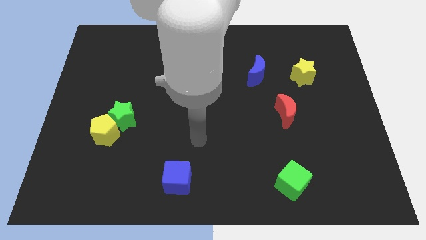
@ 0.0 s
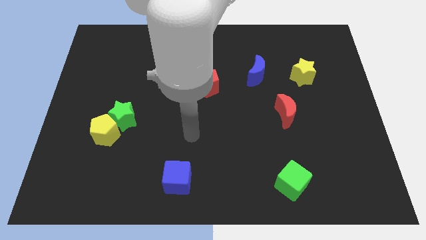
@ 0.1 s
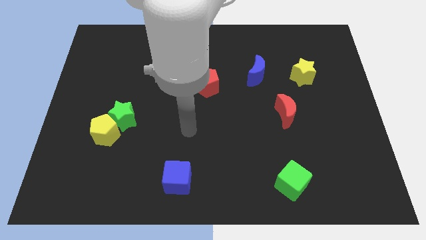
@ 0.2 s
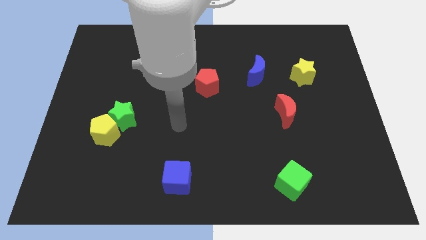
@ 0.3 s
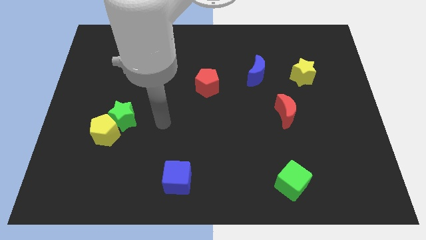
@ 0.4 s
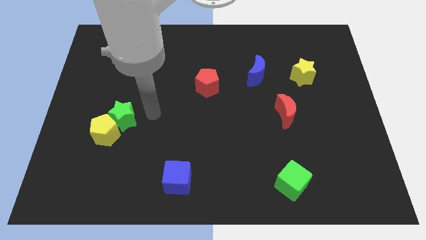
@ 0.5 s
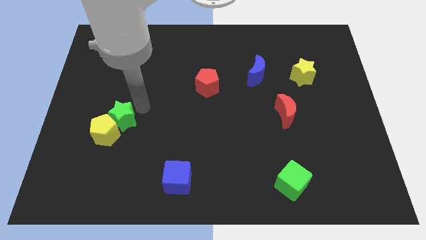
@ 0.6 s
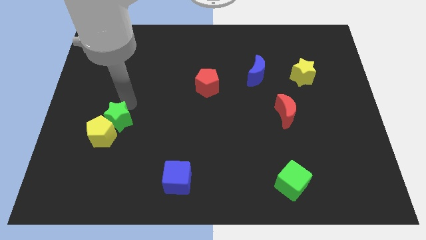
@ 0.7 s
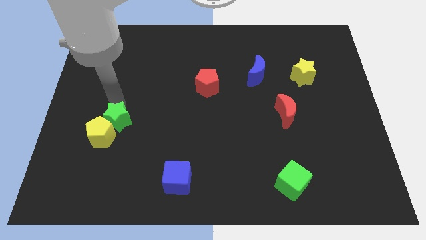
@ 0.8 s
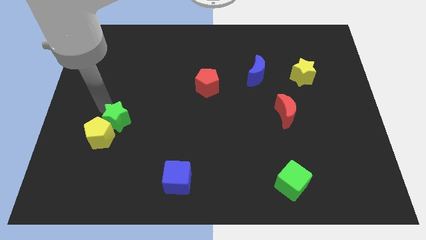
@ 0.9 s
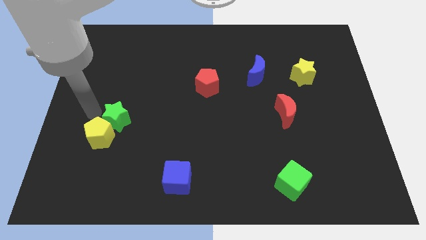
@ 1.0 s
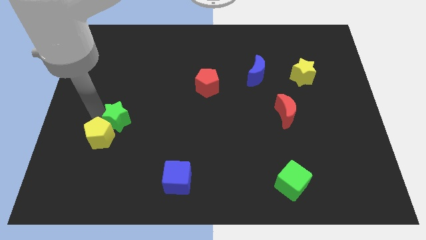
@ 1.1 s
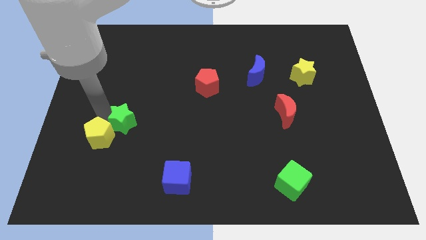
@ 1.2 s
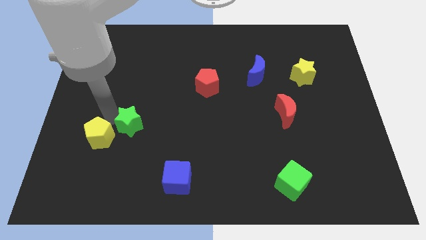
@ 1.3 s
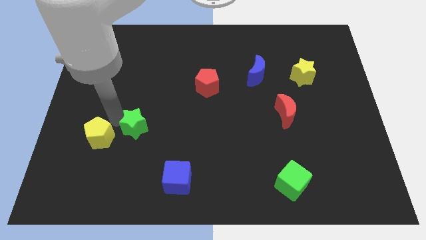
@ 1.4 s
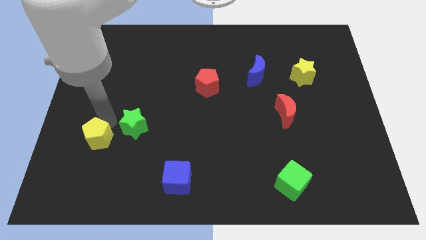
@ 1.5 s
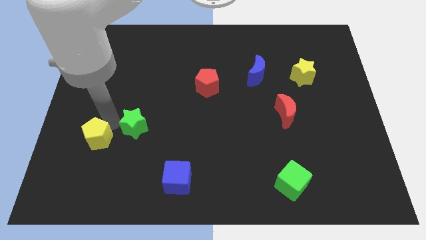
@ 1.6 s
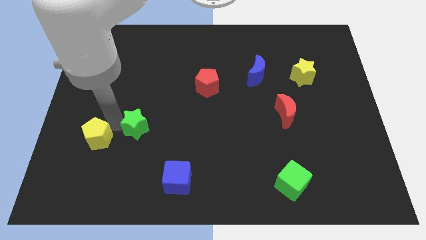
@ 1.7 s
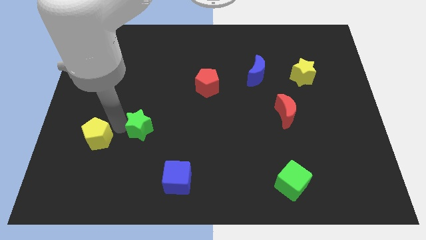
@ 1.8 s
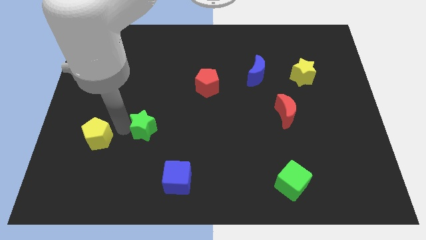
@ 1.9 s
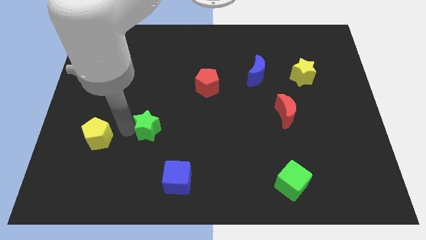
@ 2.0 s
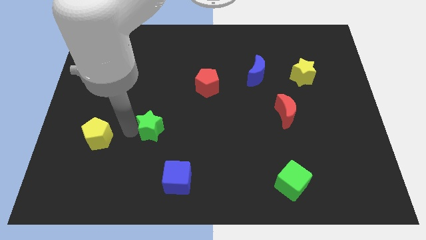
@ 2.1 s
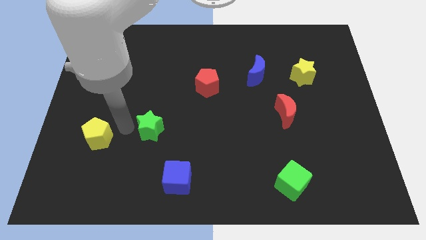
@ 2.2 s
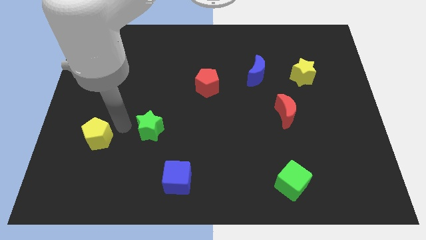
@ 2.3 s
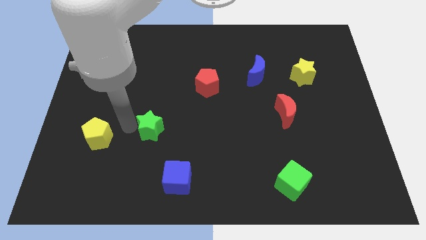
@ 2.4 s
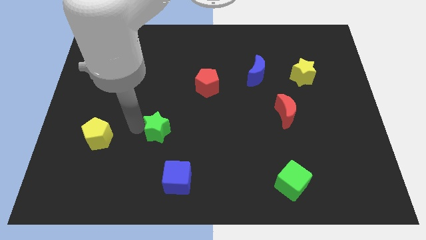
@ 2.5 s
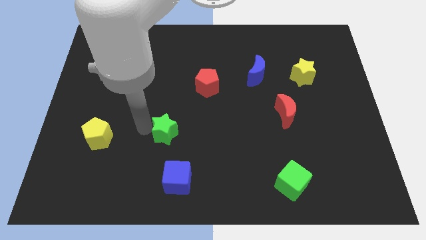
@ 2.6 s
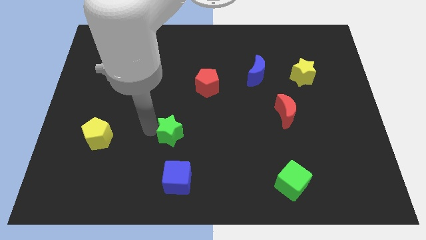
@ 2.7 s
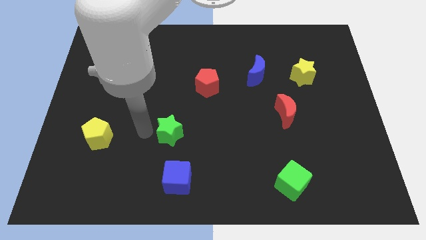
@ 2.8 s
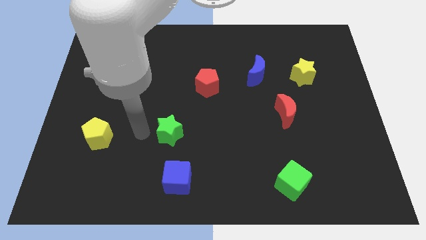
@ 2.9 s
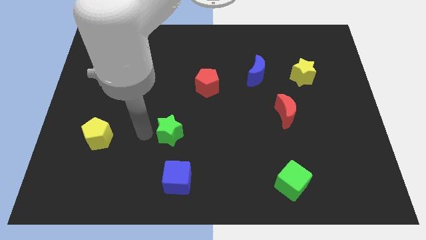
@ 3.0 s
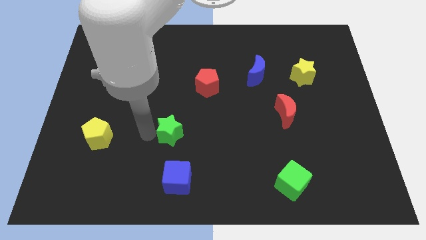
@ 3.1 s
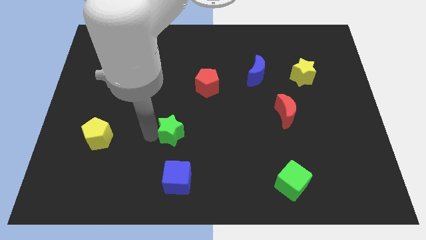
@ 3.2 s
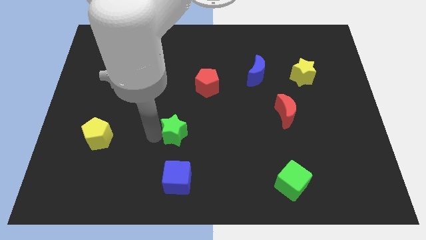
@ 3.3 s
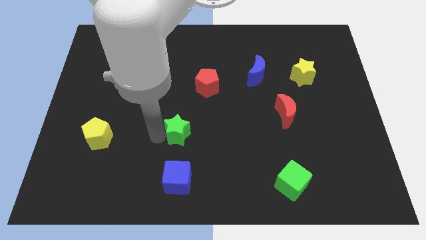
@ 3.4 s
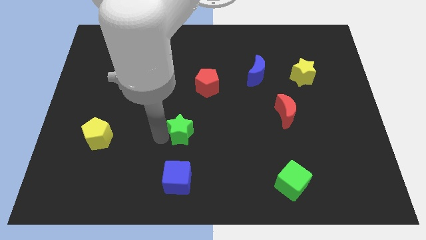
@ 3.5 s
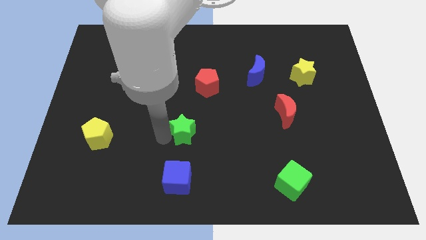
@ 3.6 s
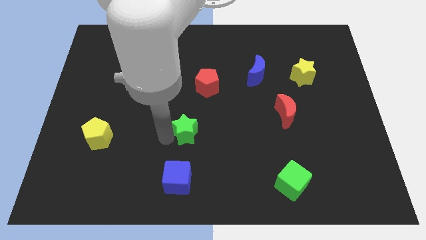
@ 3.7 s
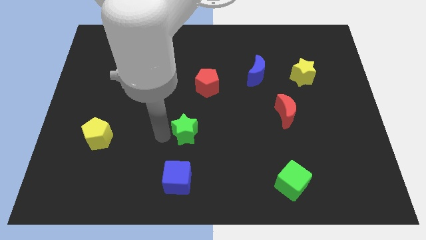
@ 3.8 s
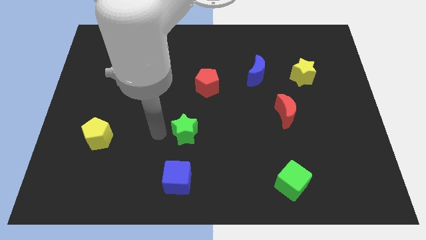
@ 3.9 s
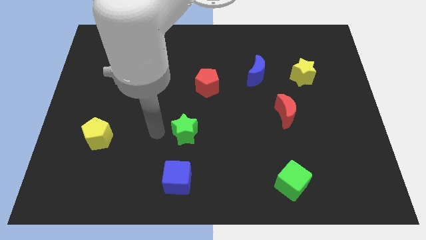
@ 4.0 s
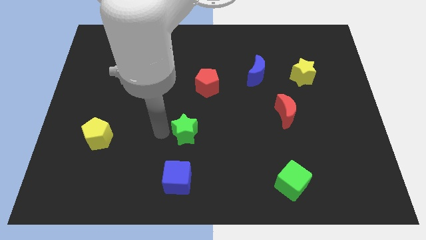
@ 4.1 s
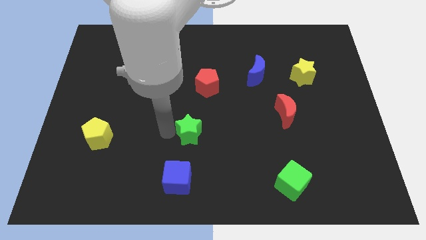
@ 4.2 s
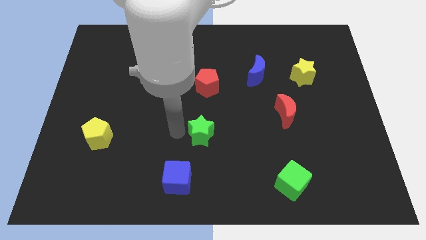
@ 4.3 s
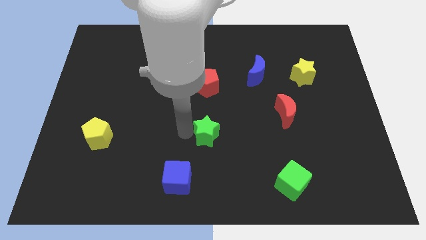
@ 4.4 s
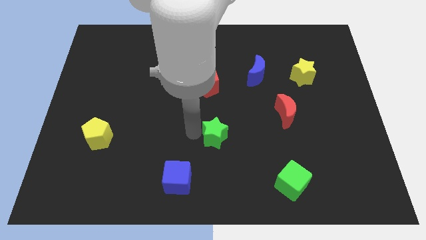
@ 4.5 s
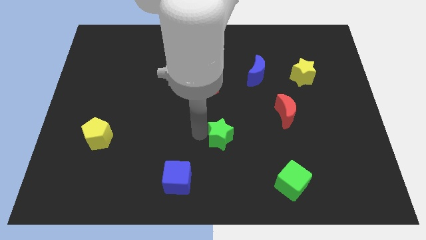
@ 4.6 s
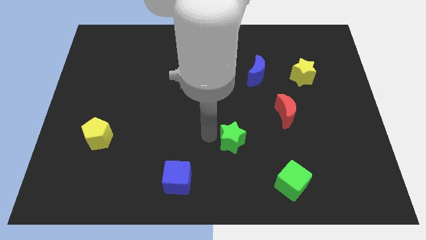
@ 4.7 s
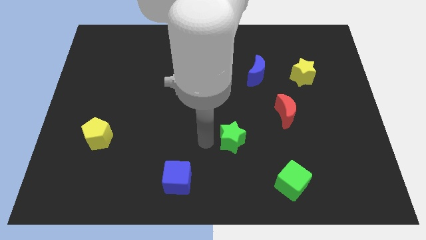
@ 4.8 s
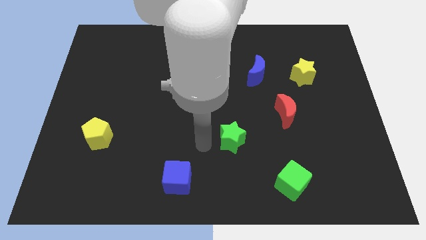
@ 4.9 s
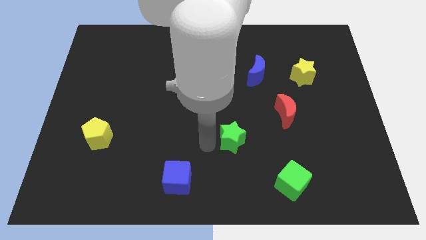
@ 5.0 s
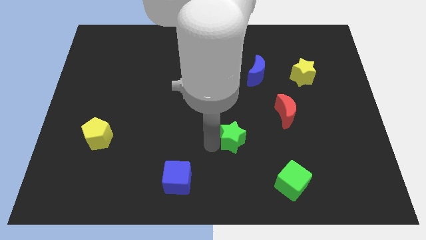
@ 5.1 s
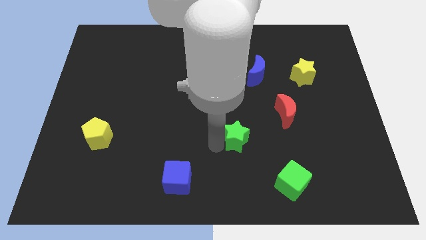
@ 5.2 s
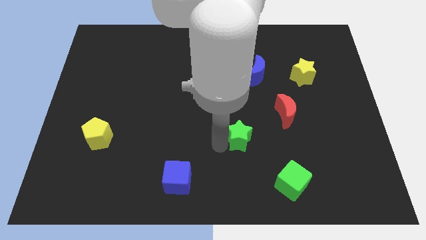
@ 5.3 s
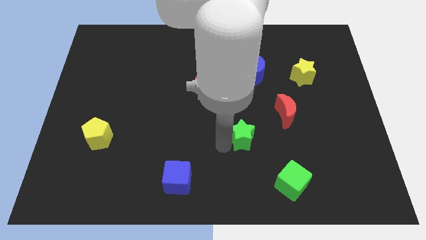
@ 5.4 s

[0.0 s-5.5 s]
push the green star to the bottom left of the red moon

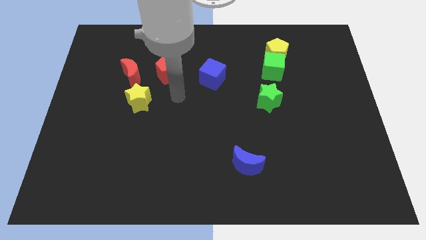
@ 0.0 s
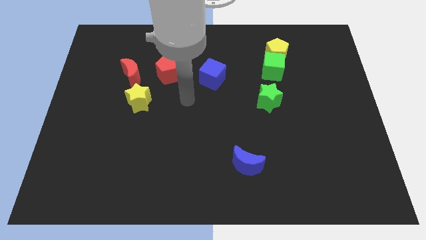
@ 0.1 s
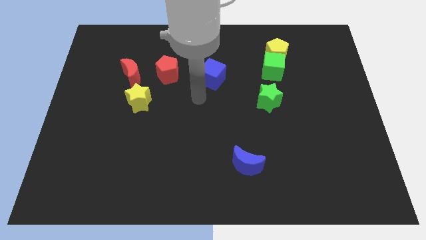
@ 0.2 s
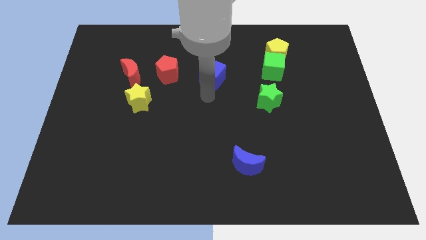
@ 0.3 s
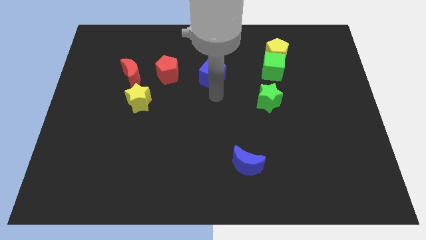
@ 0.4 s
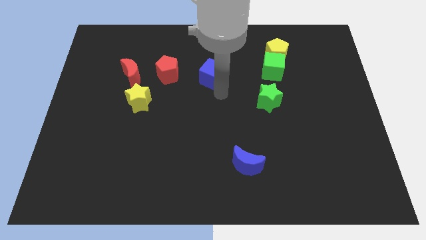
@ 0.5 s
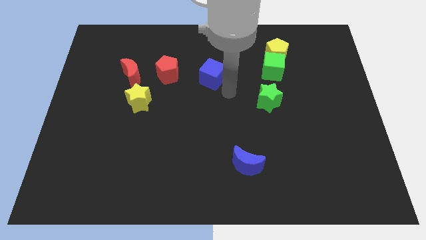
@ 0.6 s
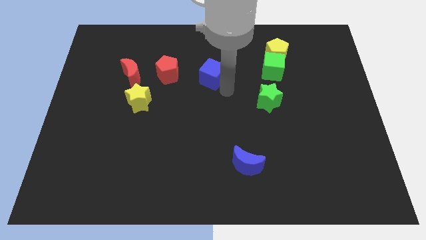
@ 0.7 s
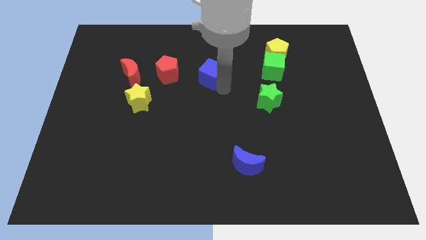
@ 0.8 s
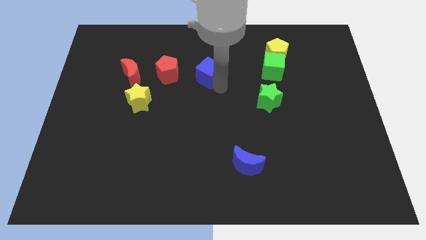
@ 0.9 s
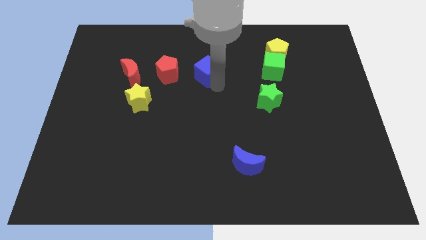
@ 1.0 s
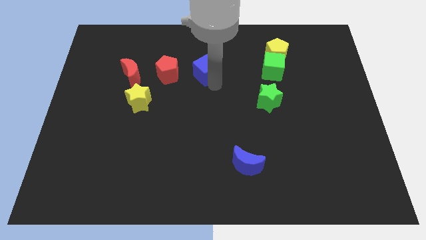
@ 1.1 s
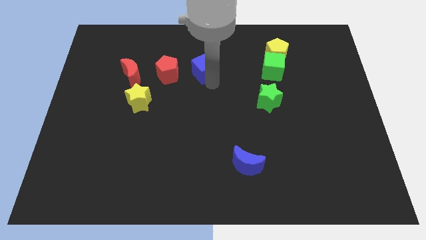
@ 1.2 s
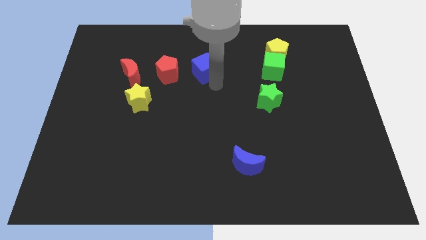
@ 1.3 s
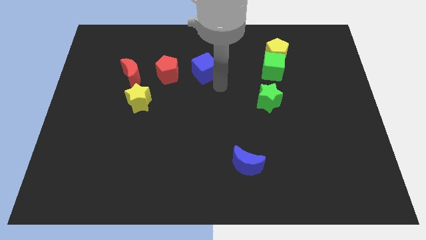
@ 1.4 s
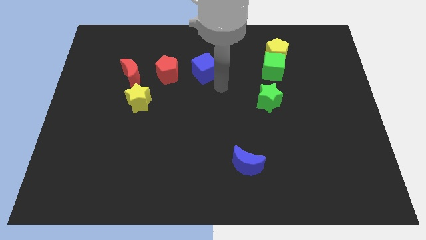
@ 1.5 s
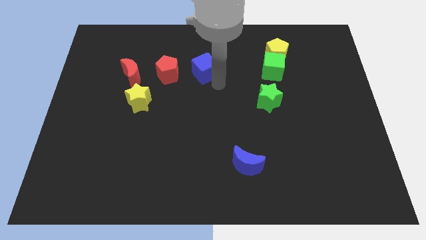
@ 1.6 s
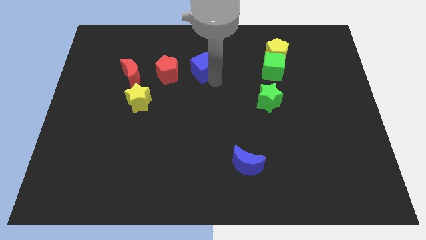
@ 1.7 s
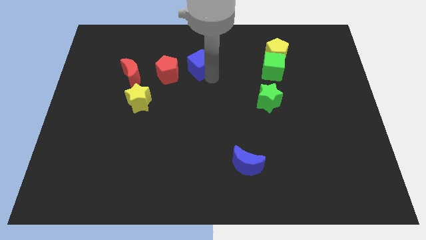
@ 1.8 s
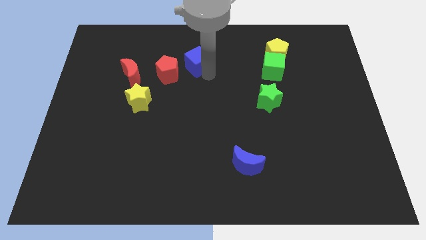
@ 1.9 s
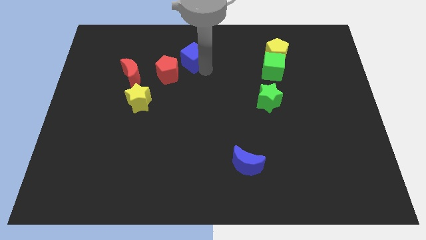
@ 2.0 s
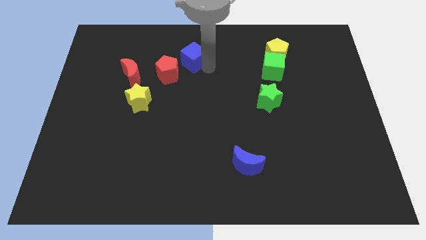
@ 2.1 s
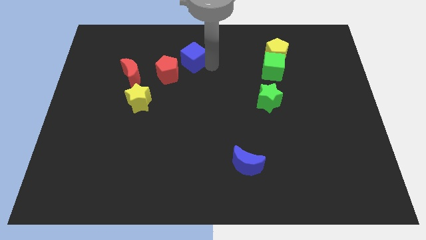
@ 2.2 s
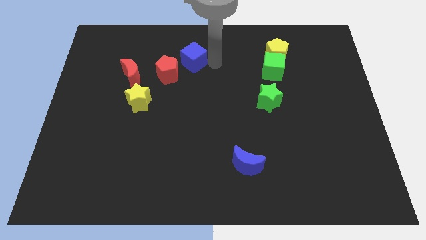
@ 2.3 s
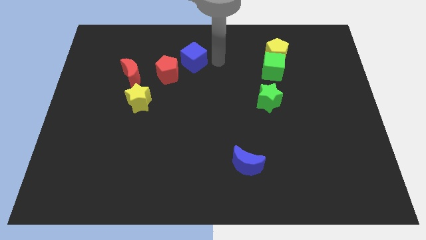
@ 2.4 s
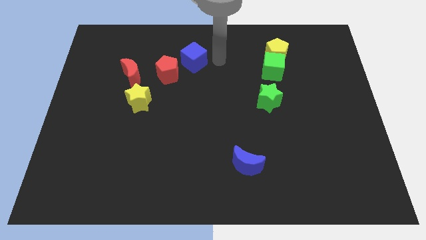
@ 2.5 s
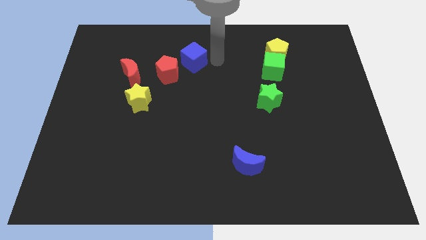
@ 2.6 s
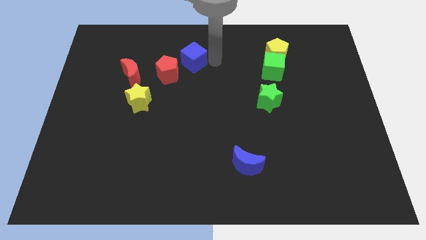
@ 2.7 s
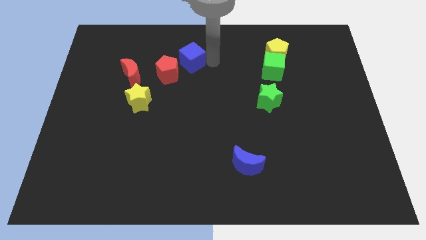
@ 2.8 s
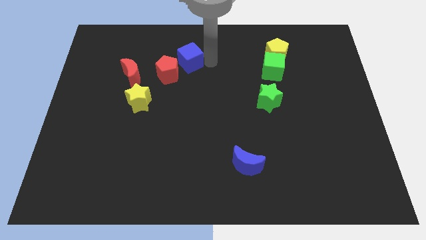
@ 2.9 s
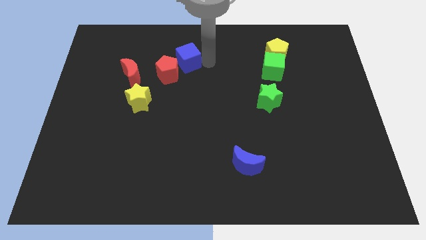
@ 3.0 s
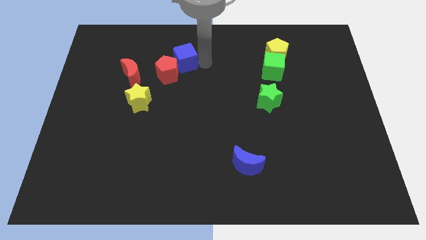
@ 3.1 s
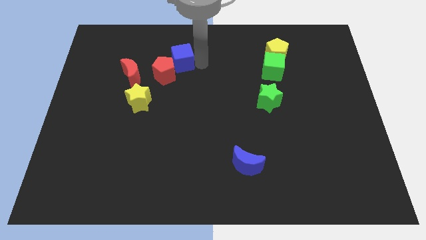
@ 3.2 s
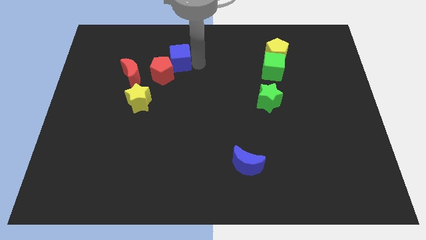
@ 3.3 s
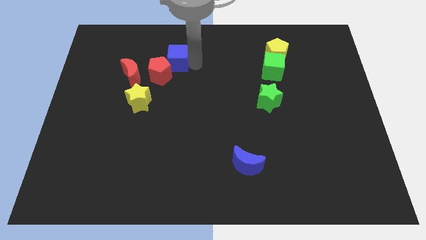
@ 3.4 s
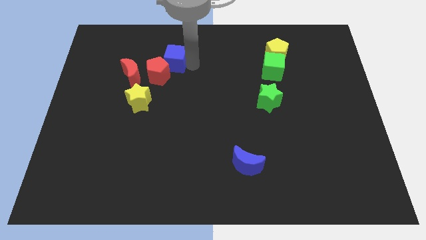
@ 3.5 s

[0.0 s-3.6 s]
move the blue cube to the top right of the red moon
